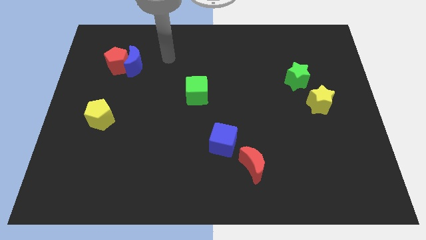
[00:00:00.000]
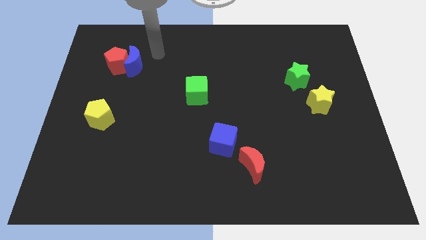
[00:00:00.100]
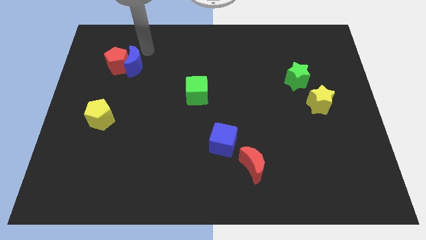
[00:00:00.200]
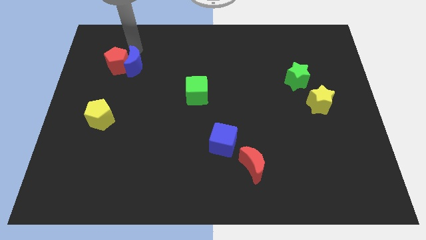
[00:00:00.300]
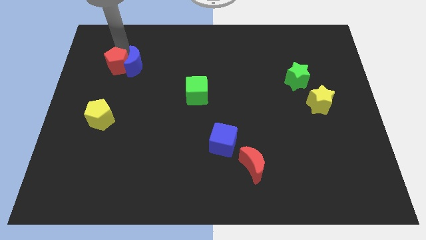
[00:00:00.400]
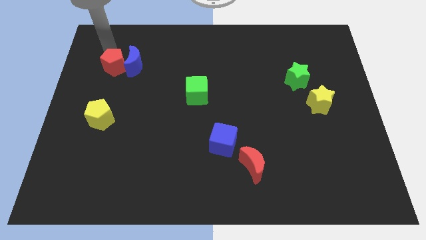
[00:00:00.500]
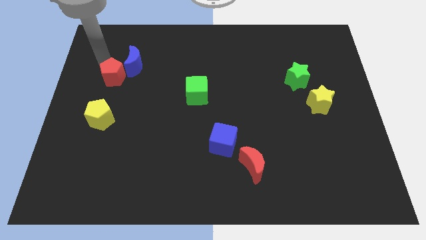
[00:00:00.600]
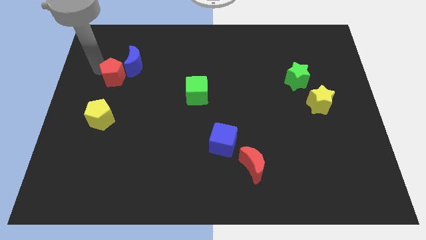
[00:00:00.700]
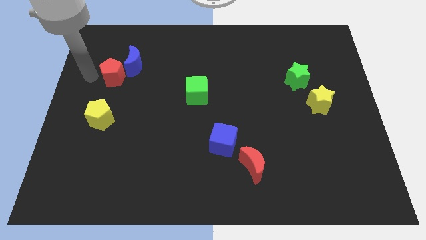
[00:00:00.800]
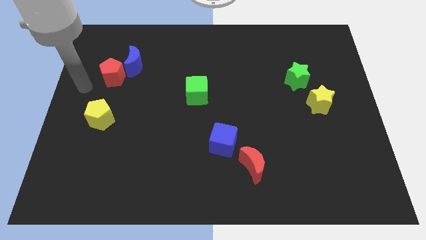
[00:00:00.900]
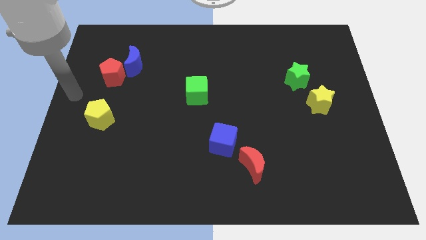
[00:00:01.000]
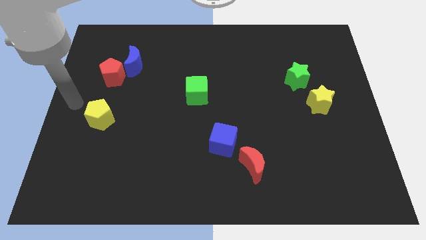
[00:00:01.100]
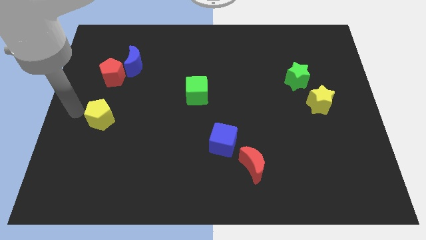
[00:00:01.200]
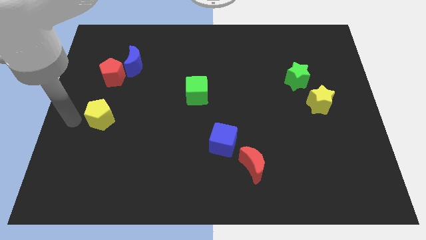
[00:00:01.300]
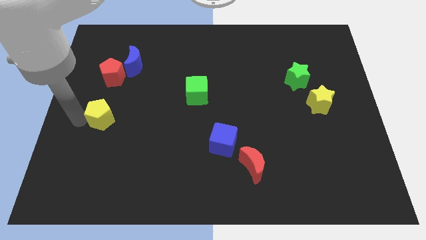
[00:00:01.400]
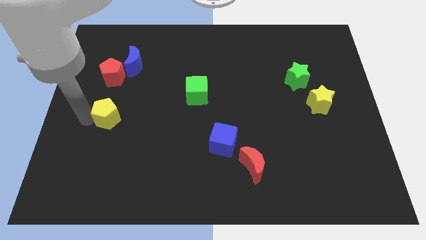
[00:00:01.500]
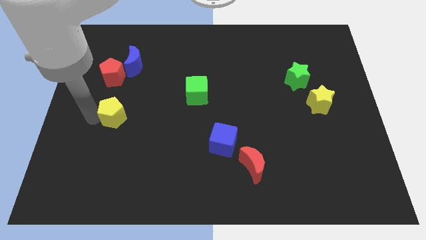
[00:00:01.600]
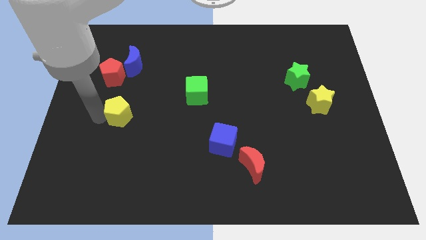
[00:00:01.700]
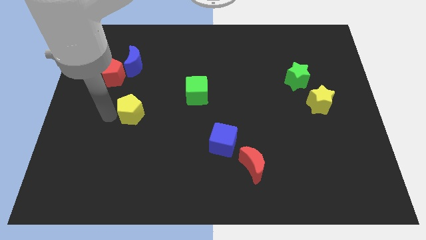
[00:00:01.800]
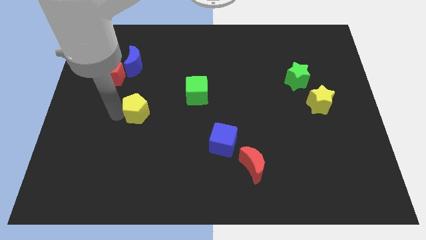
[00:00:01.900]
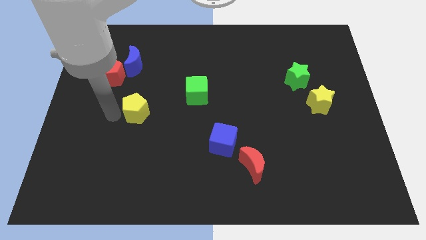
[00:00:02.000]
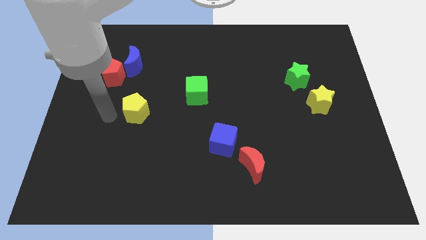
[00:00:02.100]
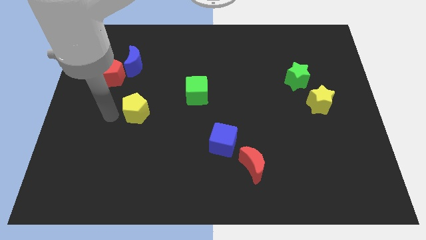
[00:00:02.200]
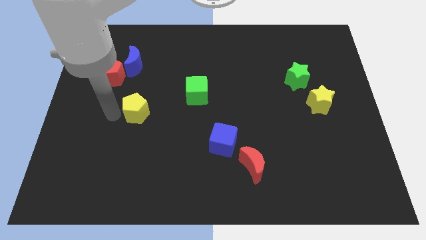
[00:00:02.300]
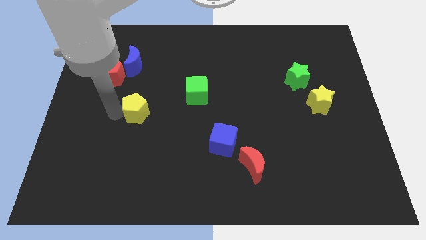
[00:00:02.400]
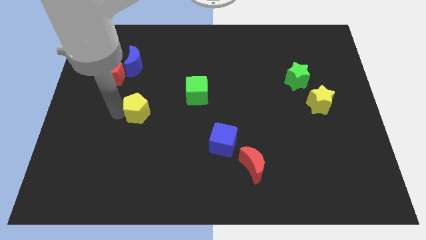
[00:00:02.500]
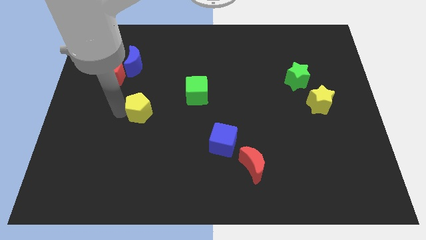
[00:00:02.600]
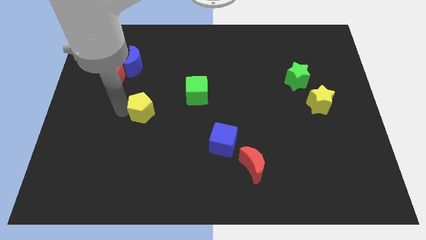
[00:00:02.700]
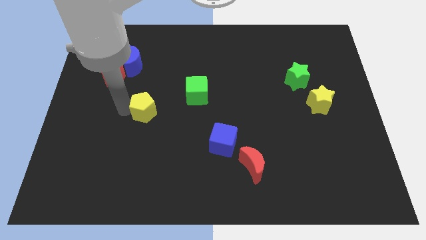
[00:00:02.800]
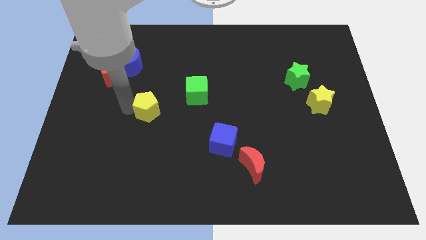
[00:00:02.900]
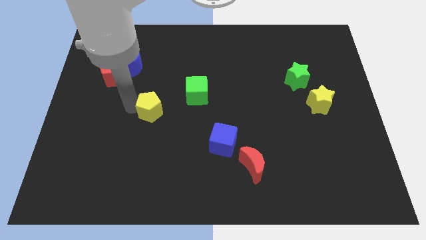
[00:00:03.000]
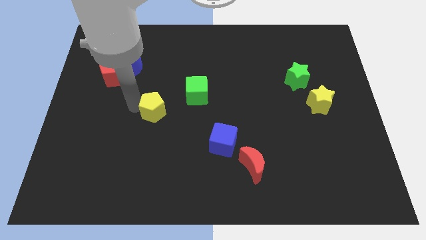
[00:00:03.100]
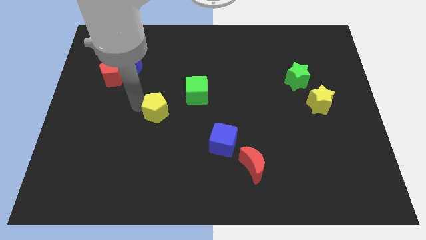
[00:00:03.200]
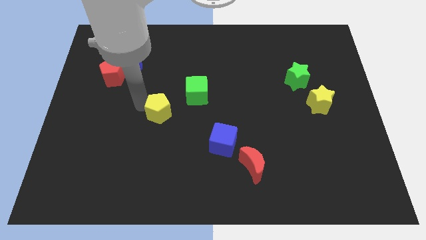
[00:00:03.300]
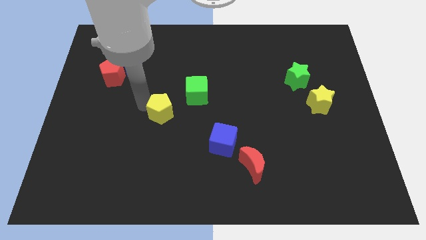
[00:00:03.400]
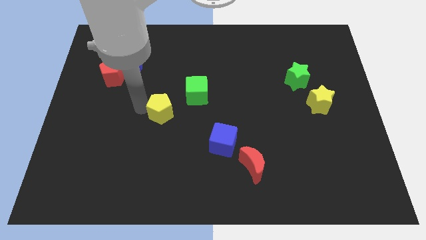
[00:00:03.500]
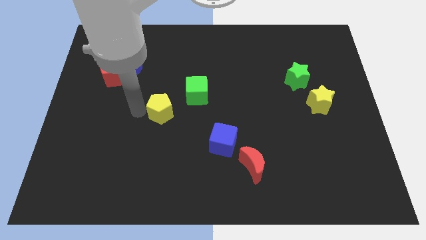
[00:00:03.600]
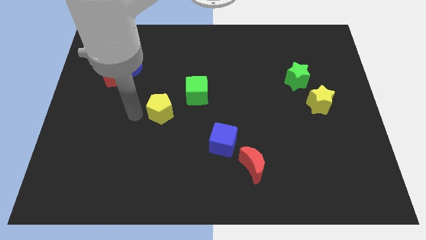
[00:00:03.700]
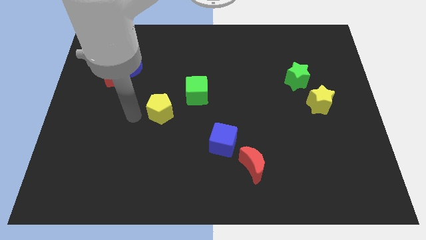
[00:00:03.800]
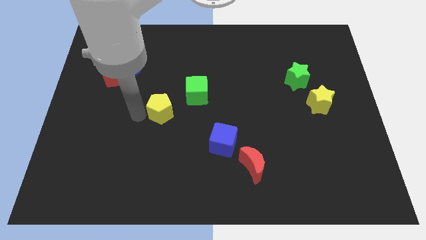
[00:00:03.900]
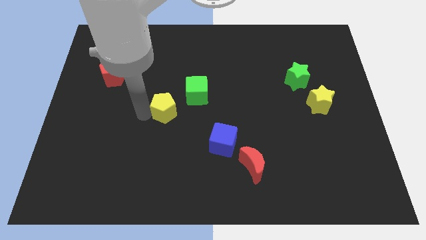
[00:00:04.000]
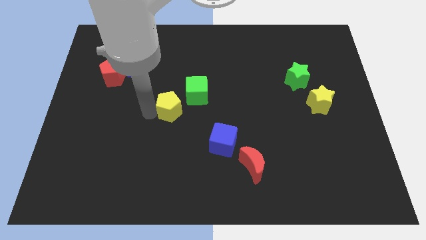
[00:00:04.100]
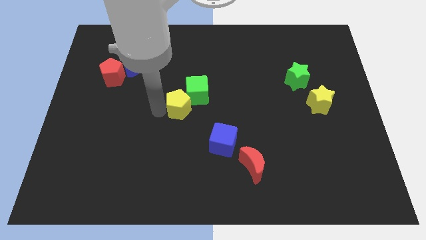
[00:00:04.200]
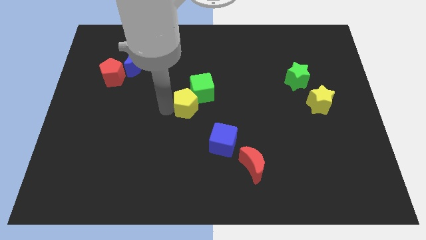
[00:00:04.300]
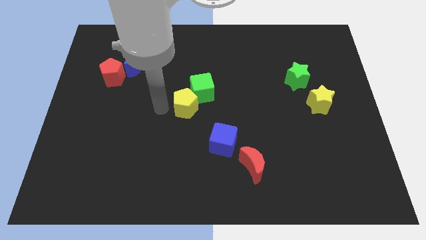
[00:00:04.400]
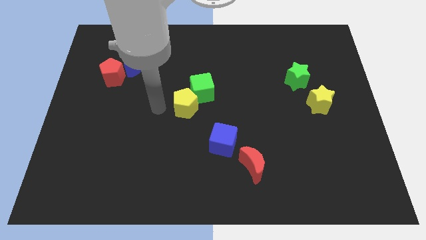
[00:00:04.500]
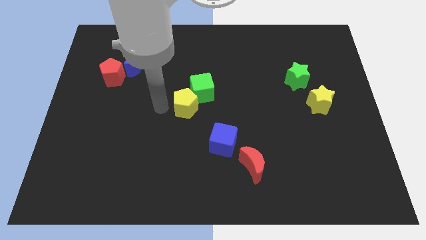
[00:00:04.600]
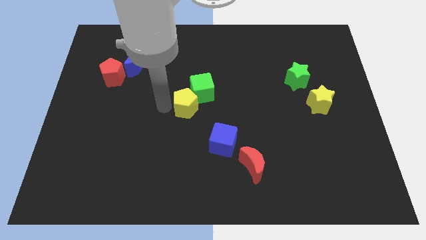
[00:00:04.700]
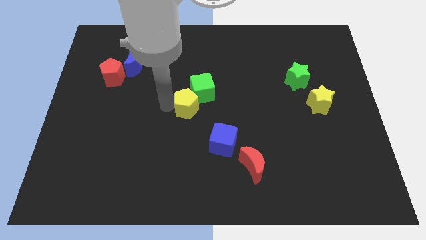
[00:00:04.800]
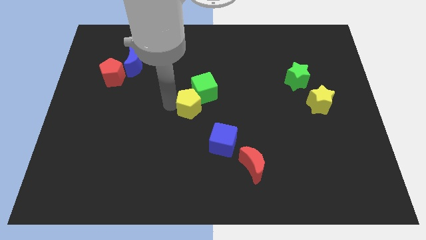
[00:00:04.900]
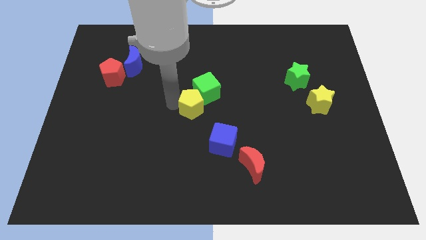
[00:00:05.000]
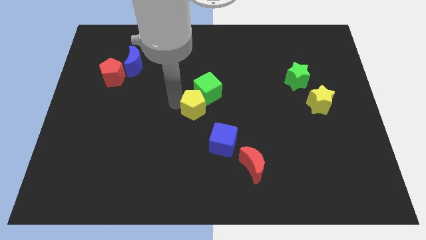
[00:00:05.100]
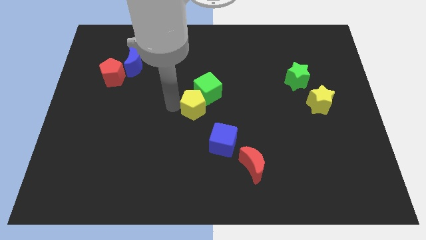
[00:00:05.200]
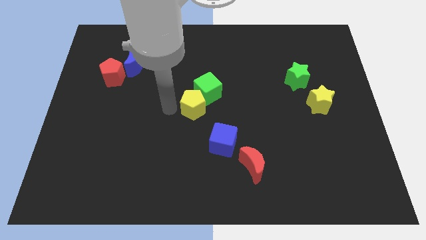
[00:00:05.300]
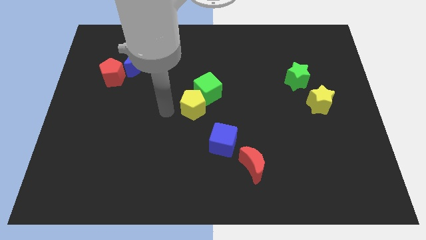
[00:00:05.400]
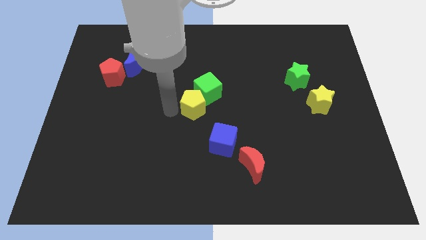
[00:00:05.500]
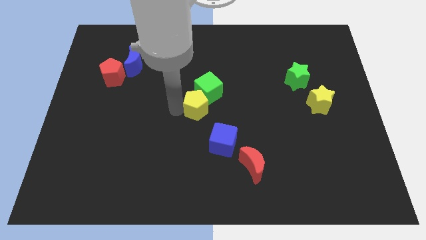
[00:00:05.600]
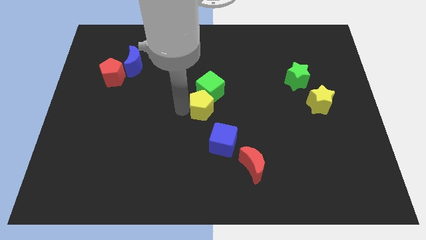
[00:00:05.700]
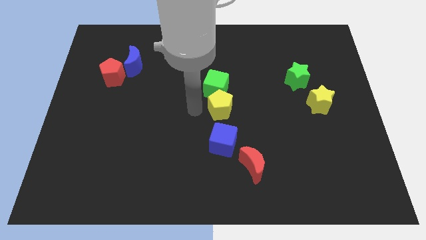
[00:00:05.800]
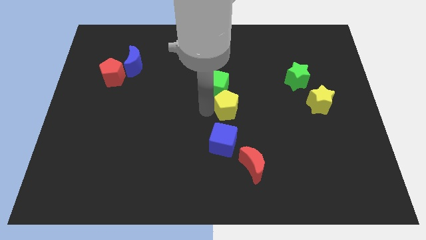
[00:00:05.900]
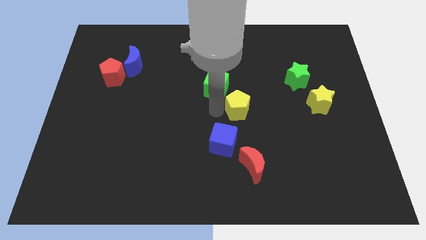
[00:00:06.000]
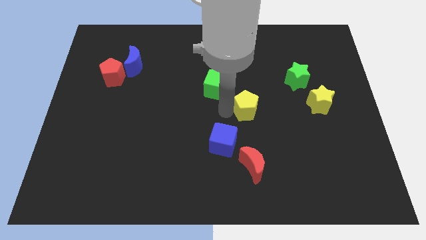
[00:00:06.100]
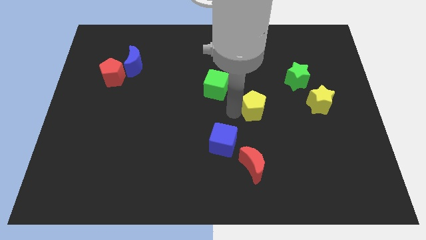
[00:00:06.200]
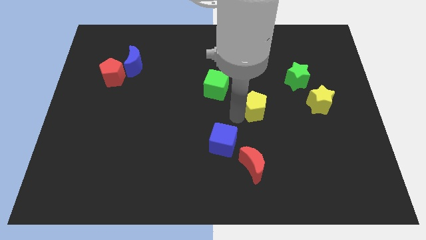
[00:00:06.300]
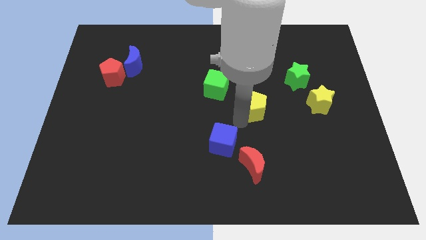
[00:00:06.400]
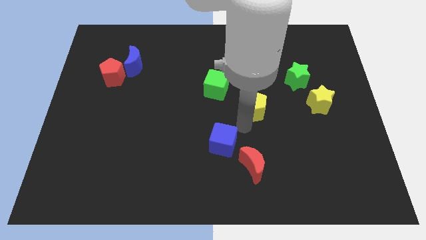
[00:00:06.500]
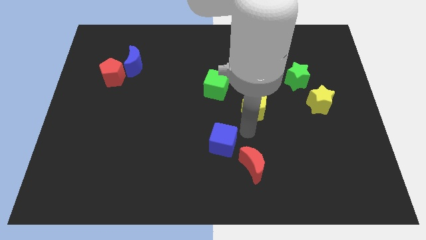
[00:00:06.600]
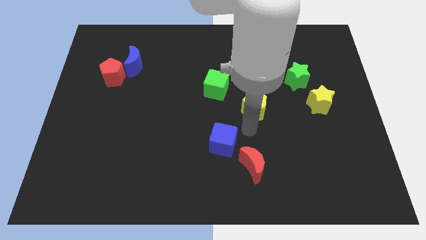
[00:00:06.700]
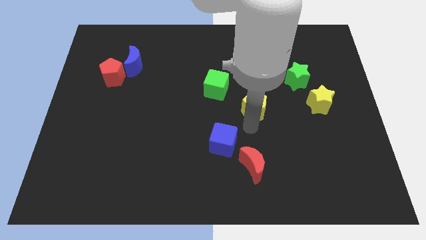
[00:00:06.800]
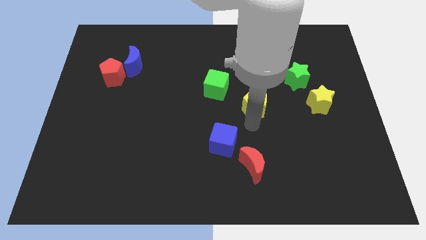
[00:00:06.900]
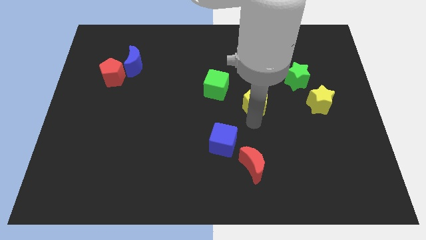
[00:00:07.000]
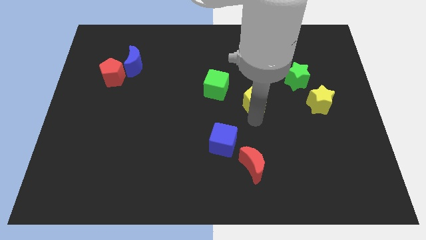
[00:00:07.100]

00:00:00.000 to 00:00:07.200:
slide the yellow pentagon right of the green cube
